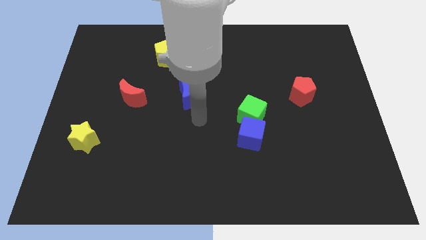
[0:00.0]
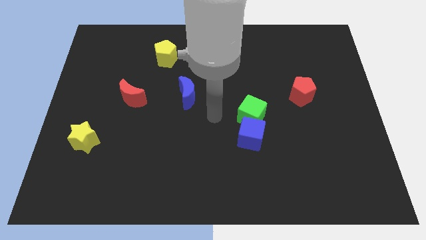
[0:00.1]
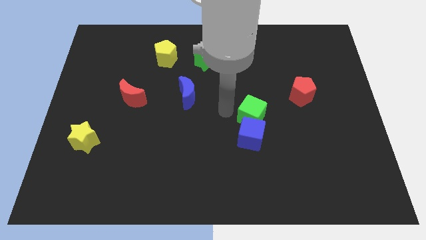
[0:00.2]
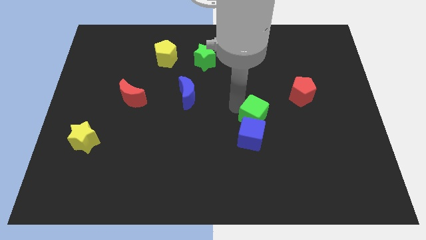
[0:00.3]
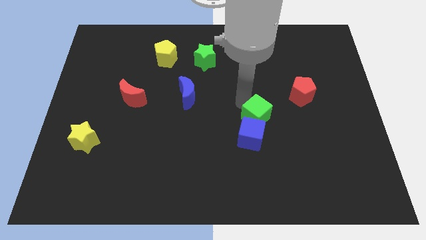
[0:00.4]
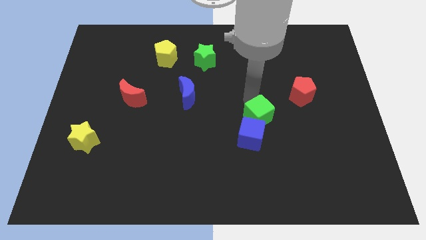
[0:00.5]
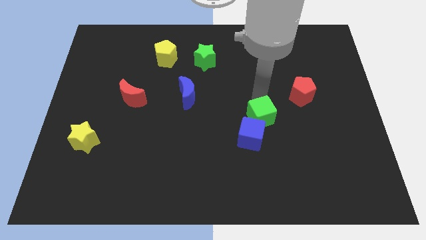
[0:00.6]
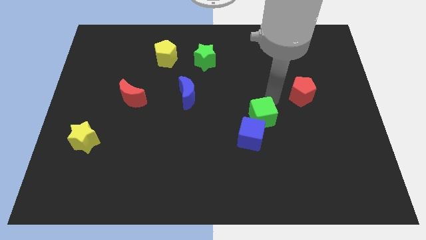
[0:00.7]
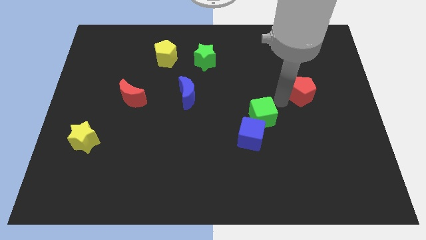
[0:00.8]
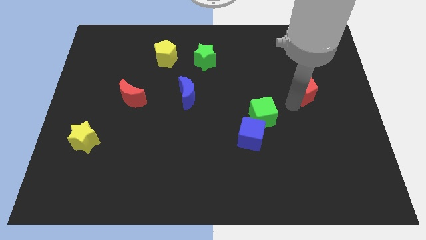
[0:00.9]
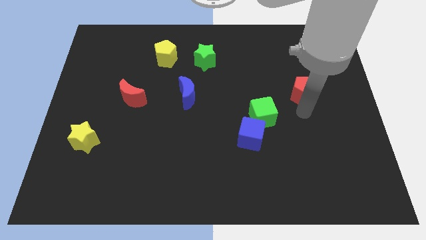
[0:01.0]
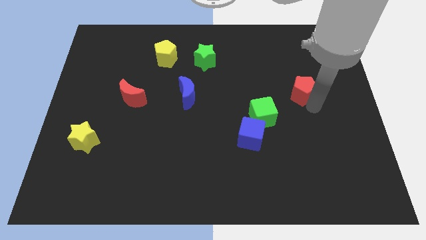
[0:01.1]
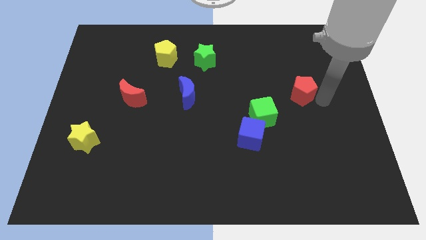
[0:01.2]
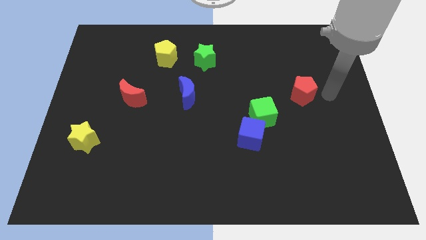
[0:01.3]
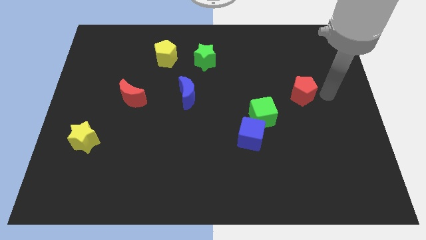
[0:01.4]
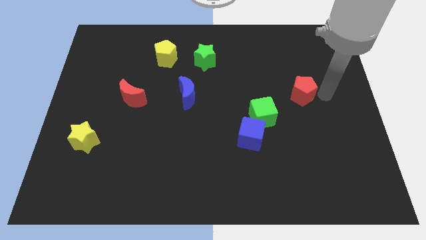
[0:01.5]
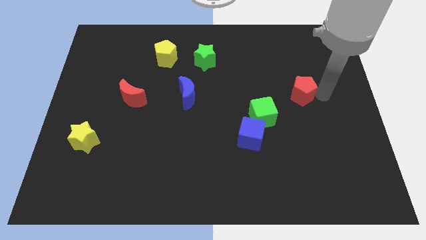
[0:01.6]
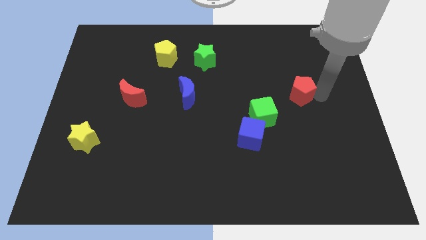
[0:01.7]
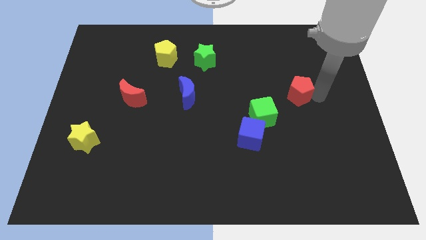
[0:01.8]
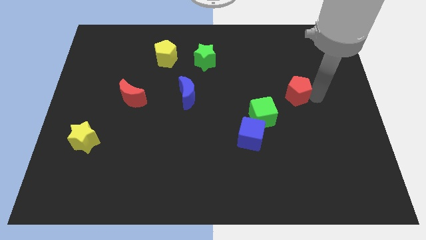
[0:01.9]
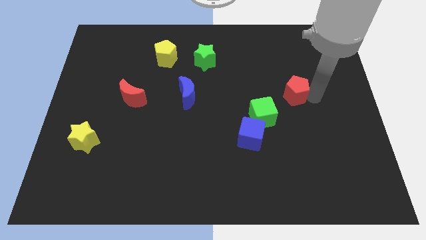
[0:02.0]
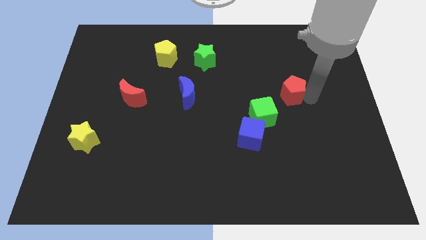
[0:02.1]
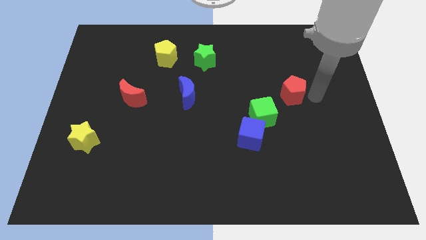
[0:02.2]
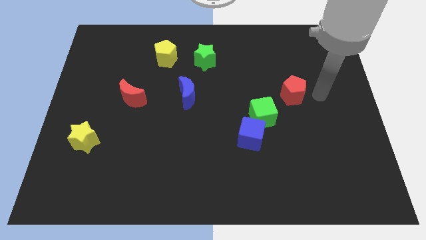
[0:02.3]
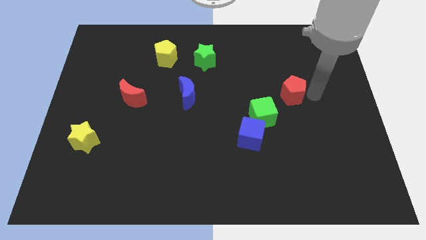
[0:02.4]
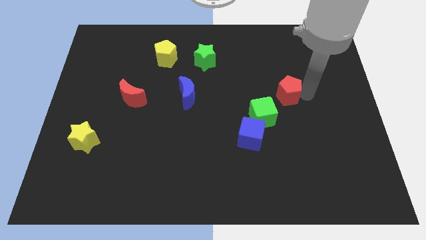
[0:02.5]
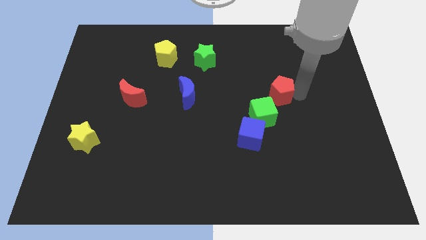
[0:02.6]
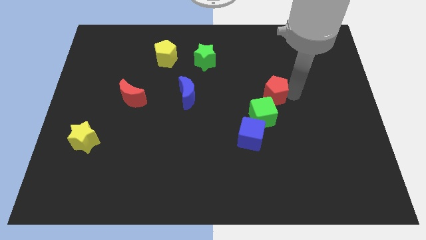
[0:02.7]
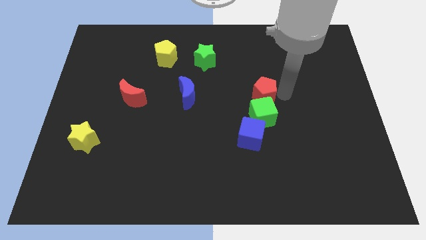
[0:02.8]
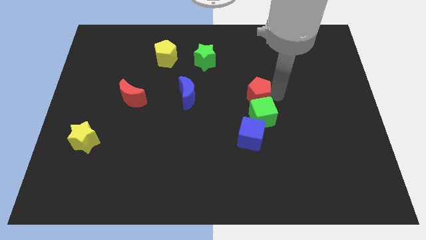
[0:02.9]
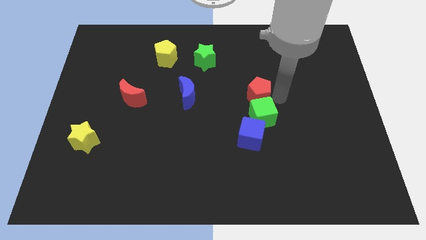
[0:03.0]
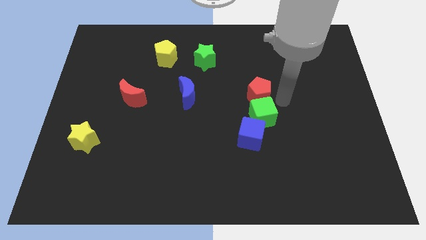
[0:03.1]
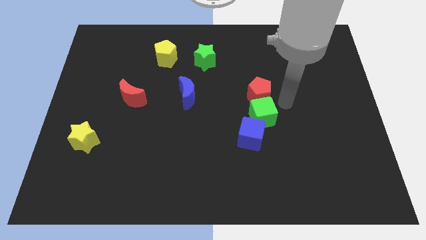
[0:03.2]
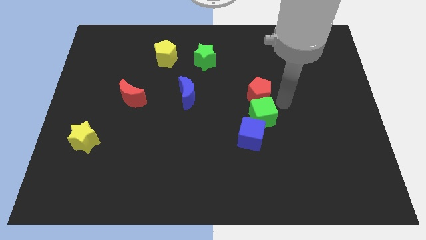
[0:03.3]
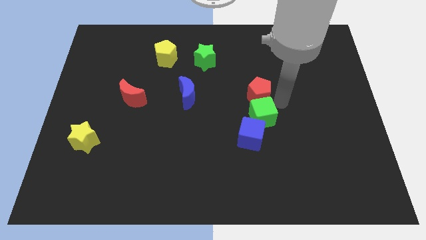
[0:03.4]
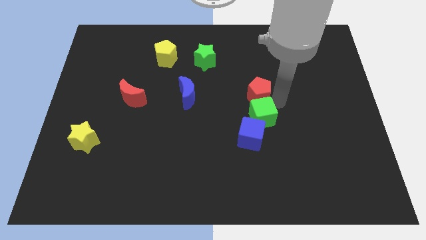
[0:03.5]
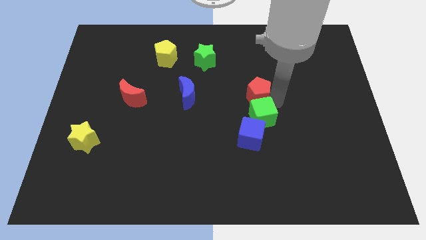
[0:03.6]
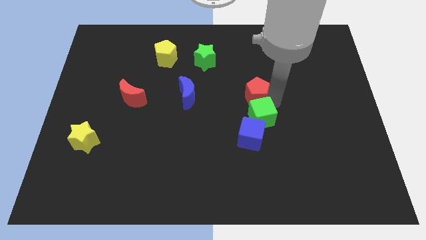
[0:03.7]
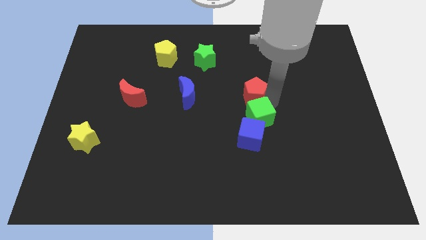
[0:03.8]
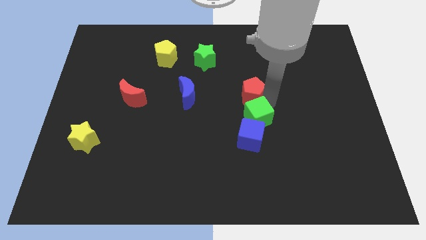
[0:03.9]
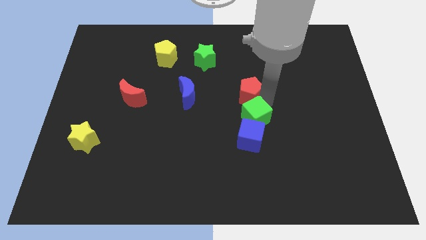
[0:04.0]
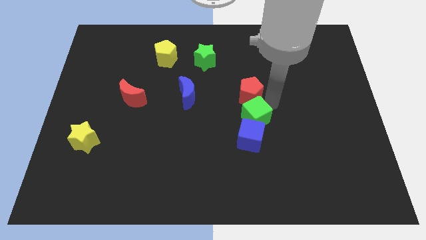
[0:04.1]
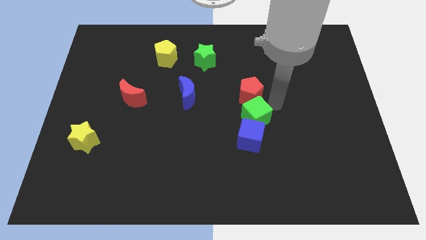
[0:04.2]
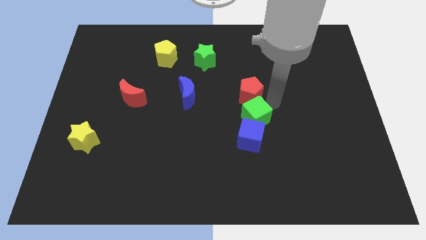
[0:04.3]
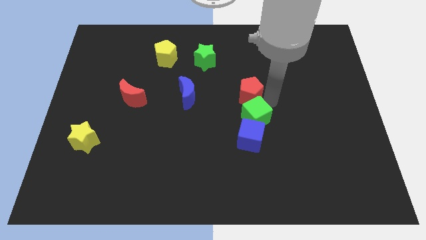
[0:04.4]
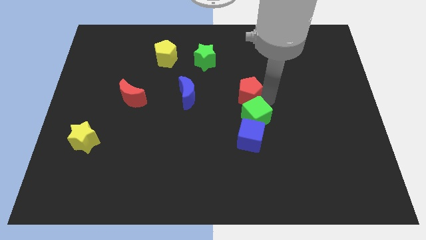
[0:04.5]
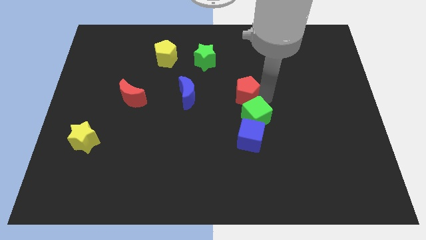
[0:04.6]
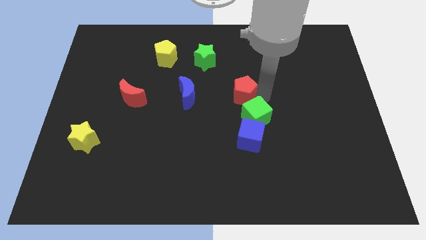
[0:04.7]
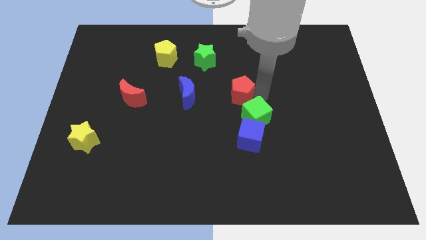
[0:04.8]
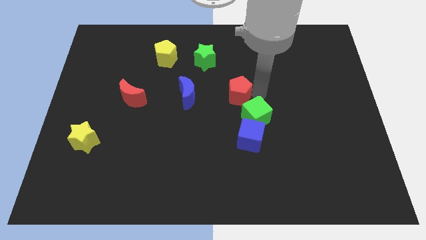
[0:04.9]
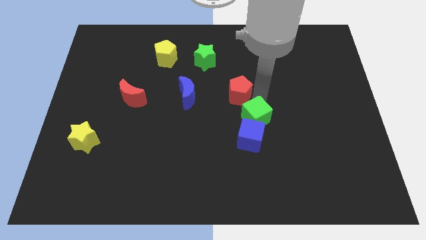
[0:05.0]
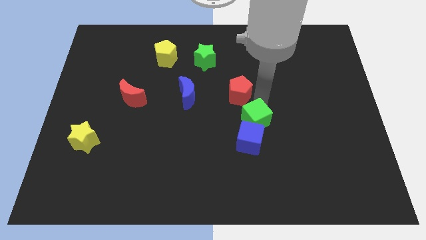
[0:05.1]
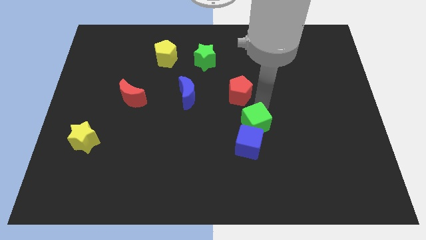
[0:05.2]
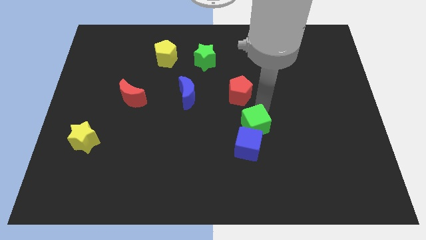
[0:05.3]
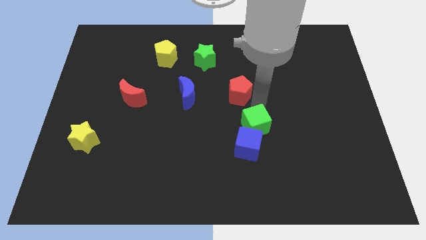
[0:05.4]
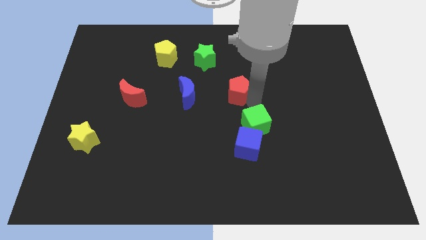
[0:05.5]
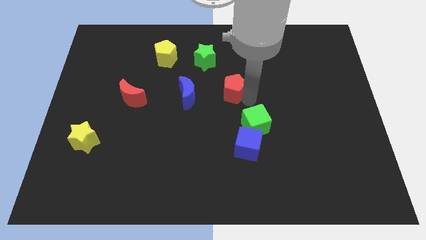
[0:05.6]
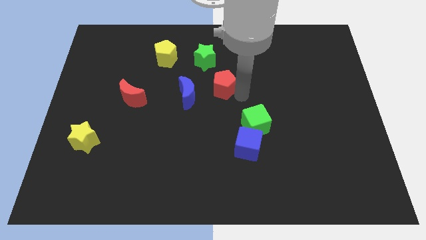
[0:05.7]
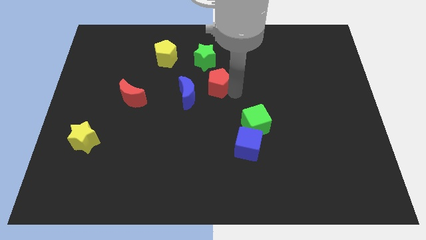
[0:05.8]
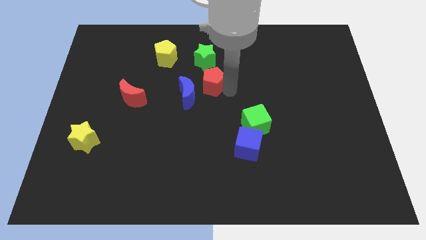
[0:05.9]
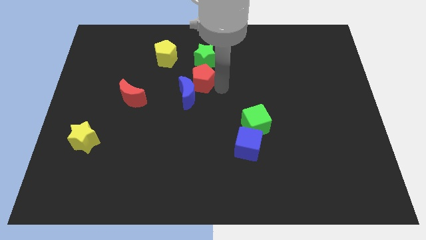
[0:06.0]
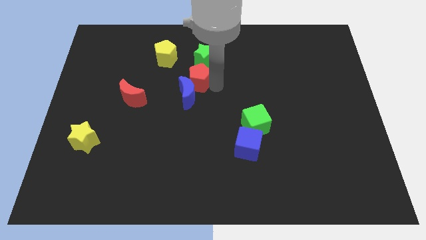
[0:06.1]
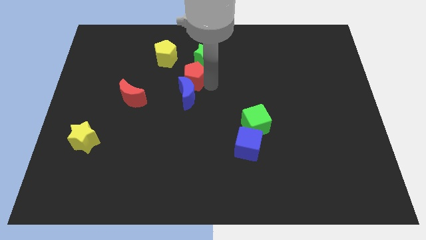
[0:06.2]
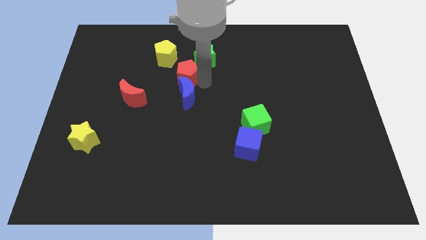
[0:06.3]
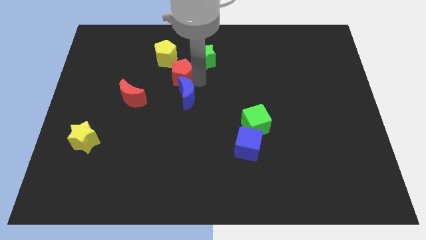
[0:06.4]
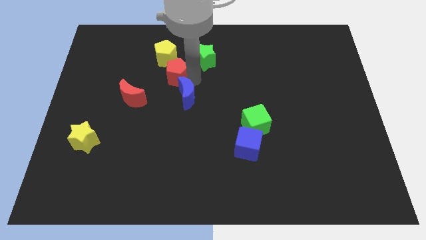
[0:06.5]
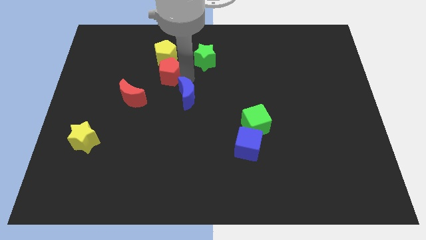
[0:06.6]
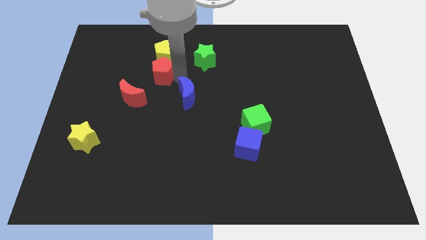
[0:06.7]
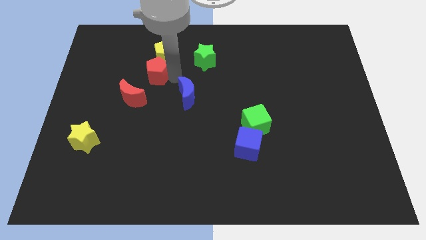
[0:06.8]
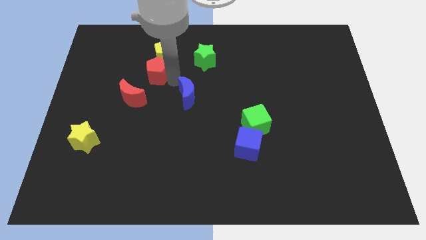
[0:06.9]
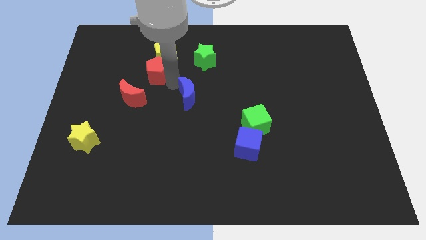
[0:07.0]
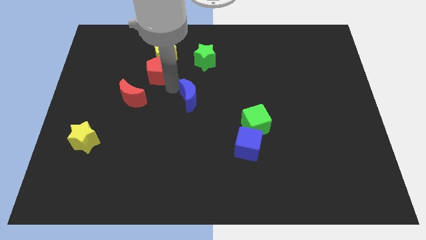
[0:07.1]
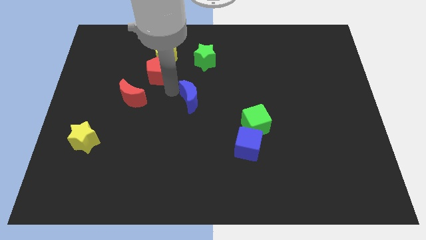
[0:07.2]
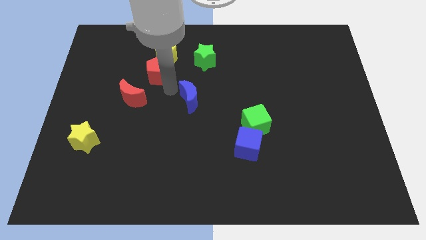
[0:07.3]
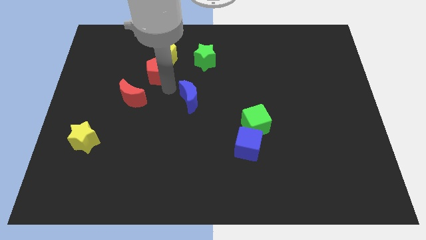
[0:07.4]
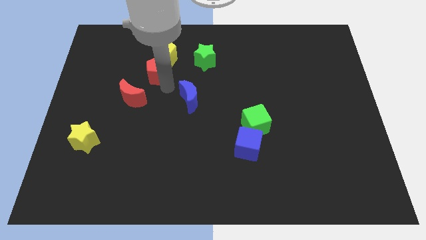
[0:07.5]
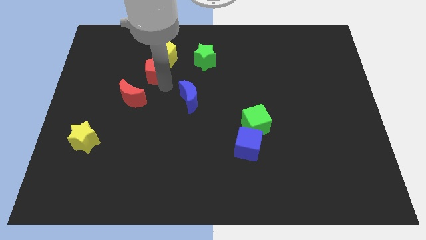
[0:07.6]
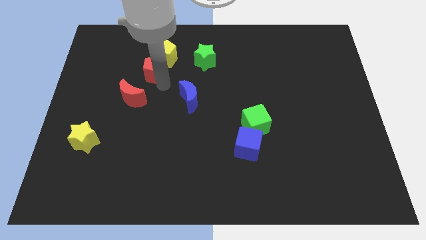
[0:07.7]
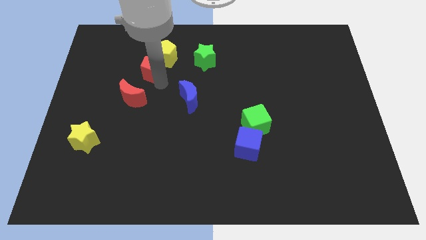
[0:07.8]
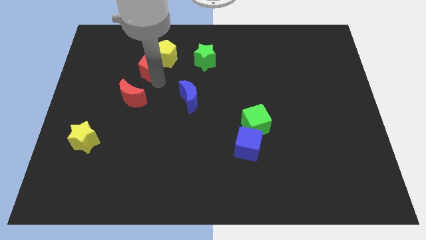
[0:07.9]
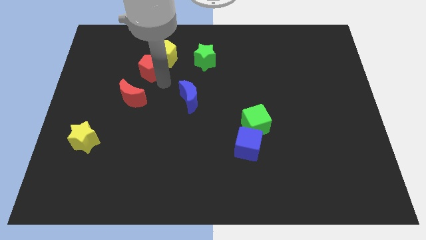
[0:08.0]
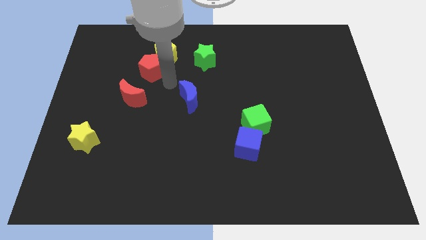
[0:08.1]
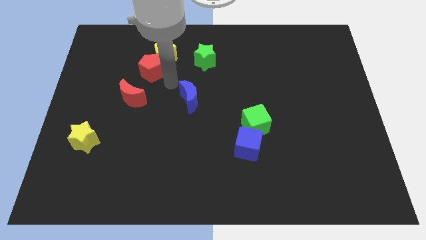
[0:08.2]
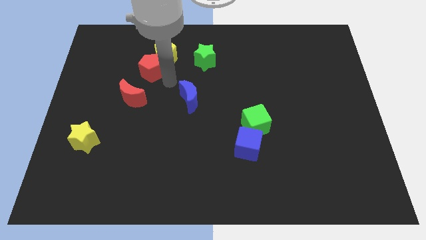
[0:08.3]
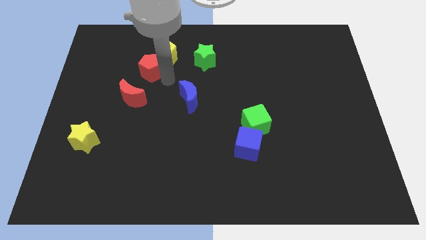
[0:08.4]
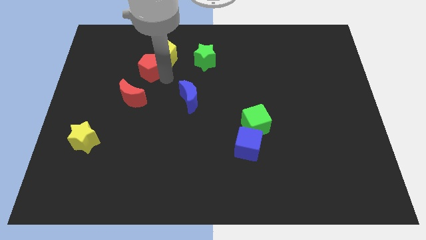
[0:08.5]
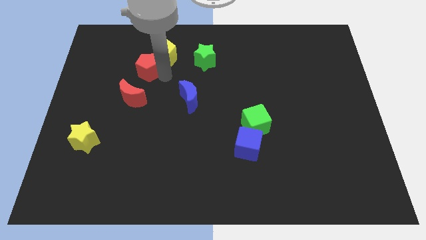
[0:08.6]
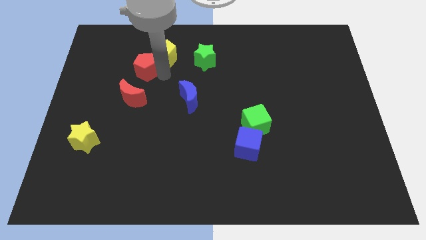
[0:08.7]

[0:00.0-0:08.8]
move the red pentagon to the left side of the yellow pentagon
